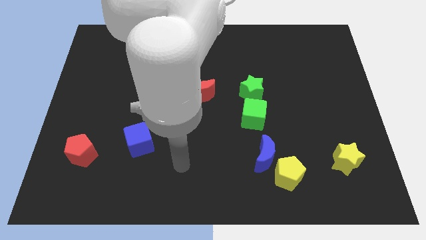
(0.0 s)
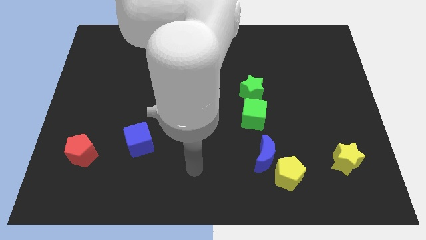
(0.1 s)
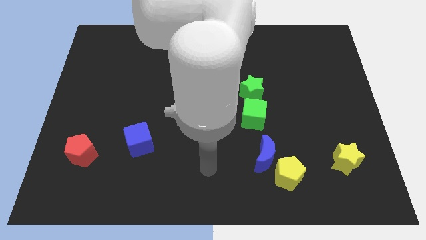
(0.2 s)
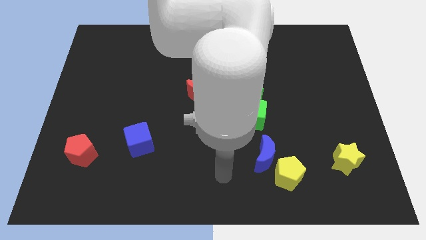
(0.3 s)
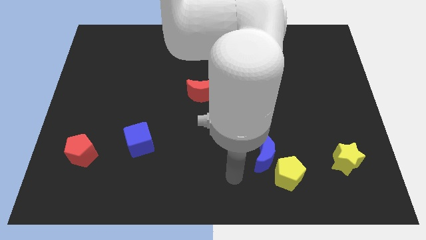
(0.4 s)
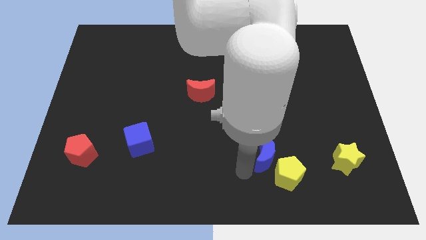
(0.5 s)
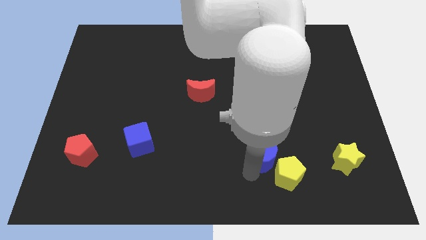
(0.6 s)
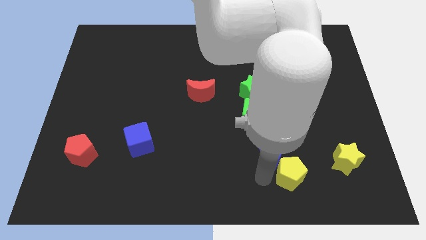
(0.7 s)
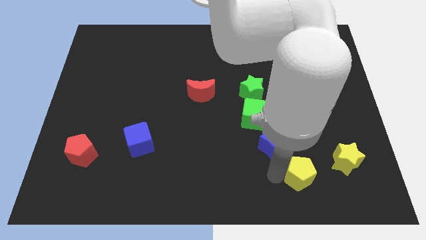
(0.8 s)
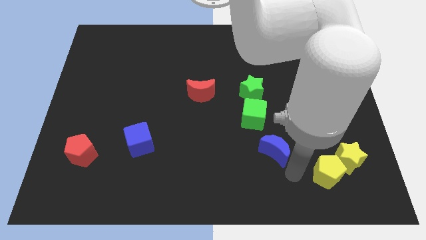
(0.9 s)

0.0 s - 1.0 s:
pull the blue moon apart from the yellow pentagon

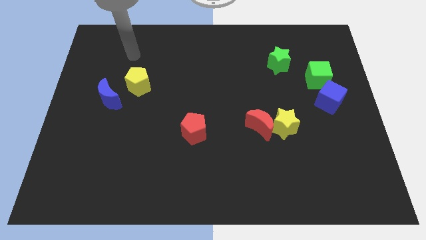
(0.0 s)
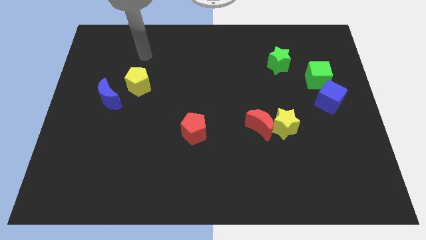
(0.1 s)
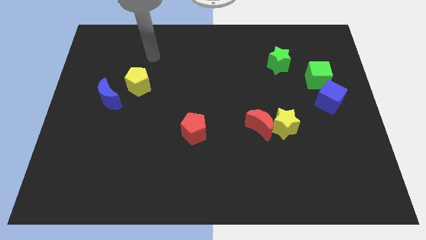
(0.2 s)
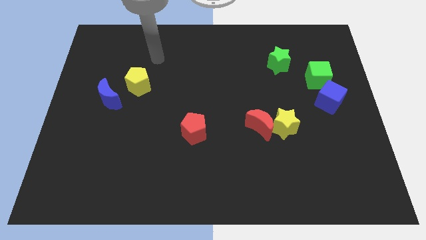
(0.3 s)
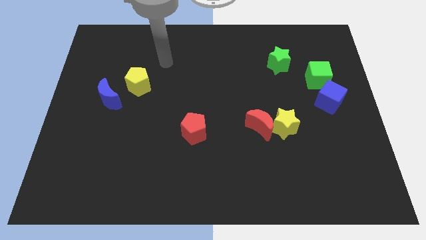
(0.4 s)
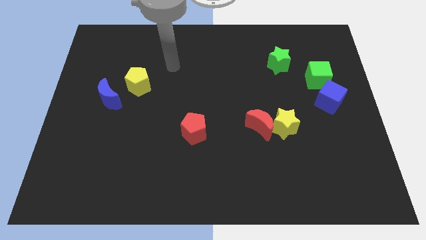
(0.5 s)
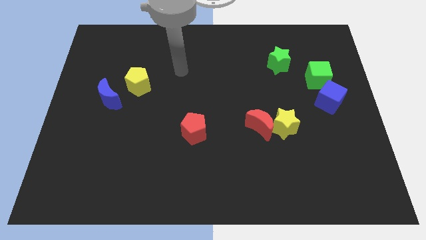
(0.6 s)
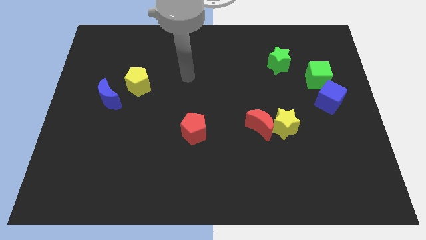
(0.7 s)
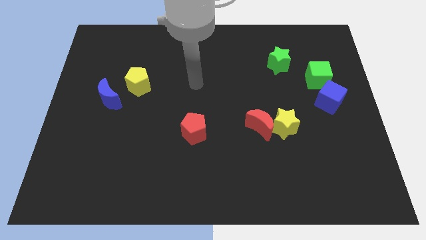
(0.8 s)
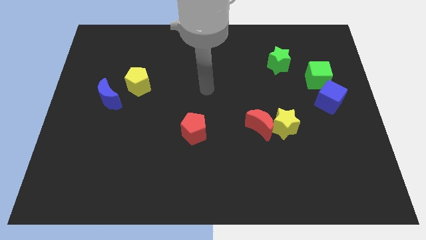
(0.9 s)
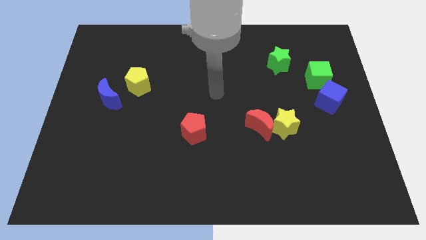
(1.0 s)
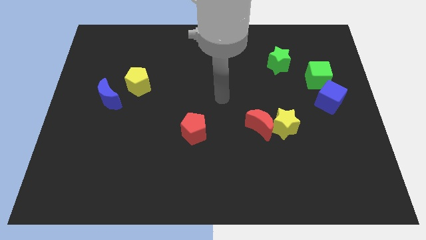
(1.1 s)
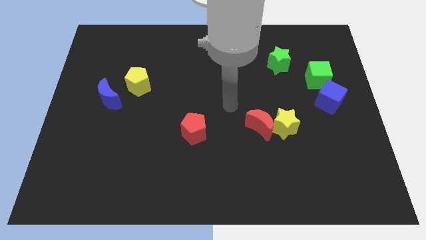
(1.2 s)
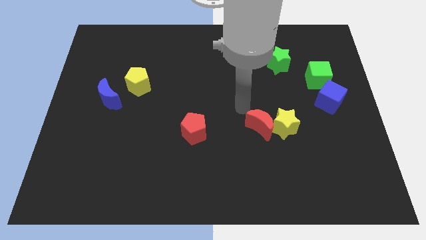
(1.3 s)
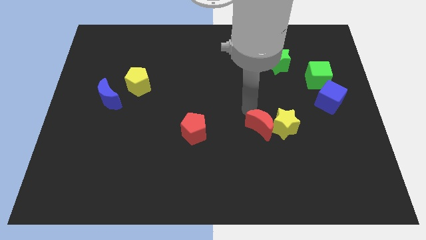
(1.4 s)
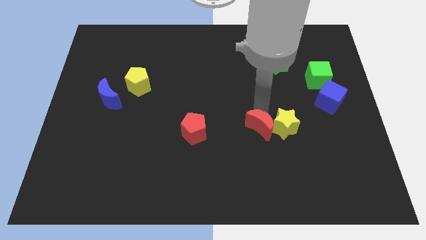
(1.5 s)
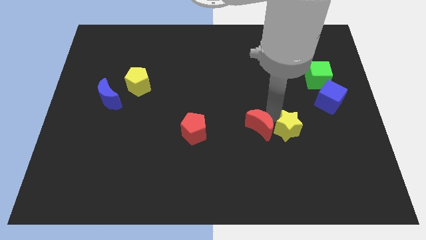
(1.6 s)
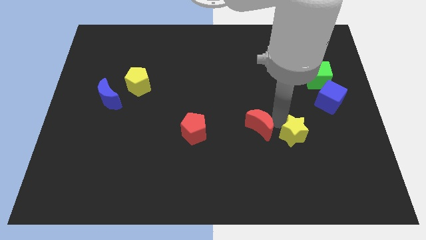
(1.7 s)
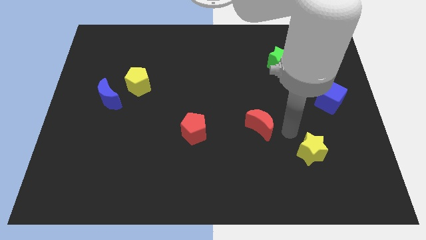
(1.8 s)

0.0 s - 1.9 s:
separate the red moon from the yellow star

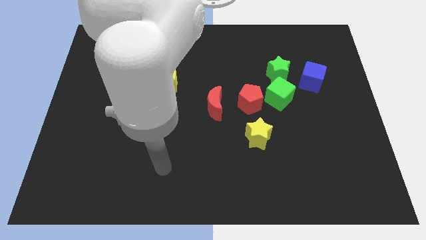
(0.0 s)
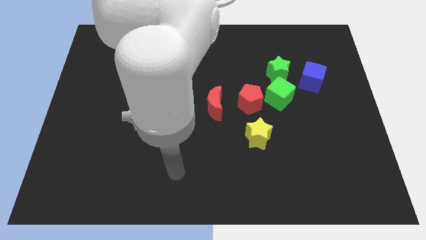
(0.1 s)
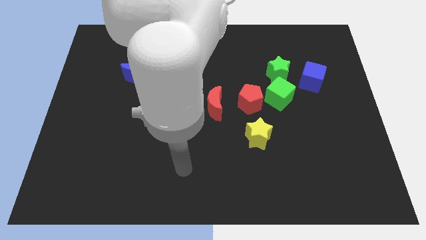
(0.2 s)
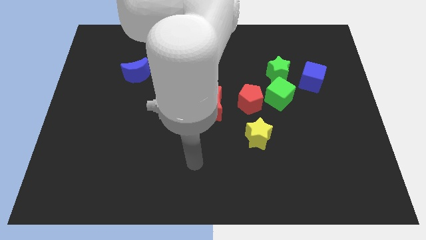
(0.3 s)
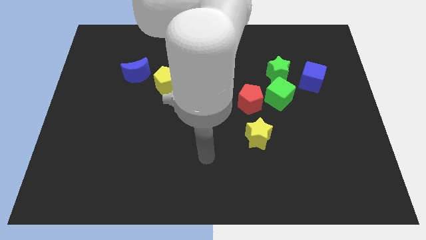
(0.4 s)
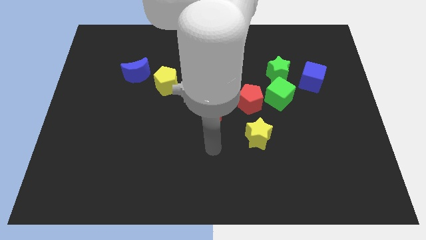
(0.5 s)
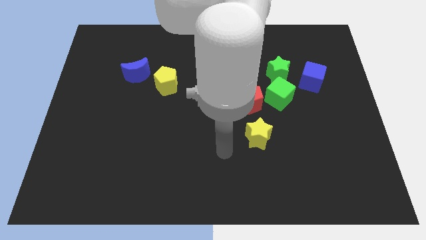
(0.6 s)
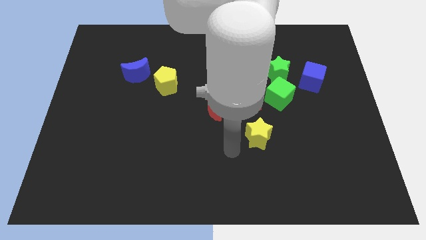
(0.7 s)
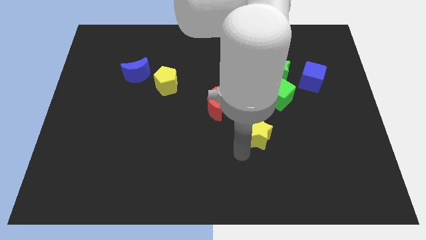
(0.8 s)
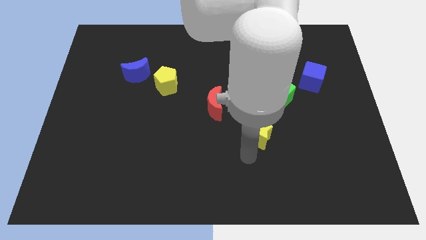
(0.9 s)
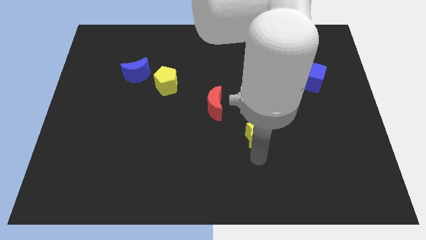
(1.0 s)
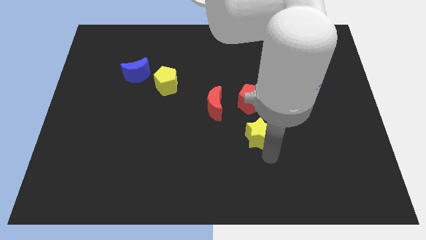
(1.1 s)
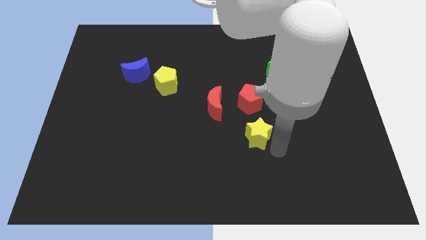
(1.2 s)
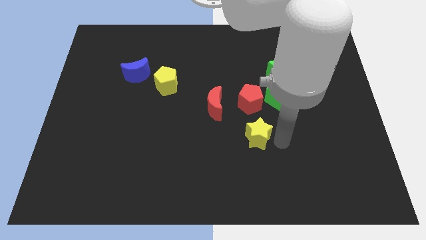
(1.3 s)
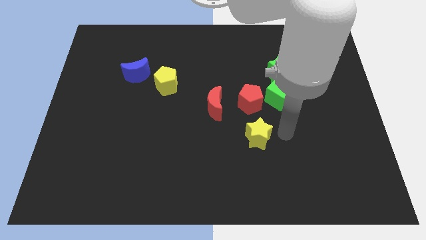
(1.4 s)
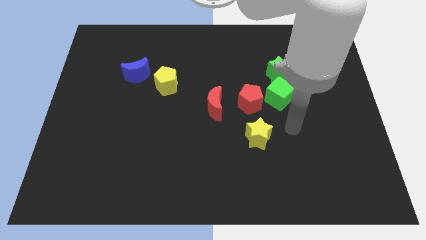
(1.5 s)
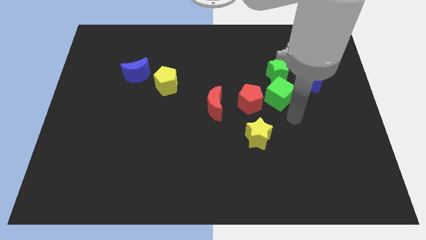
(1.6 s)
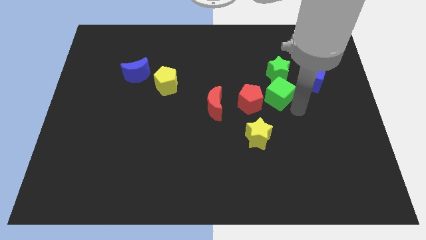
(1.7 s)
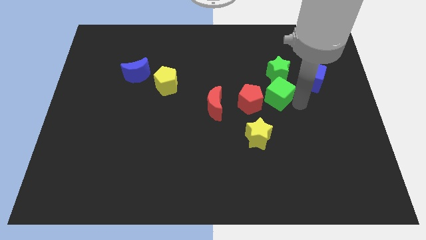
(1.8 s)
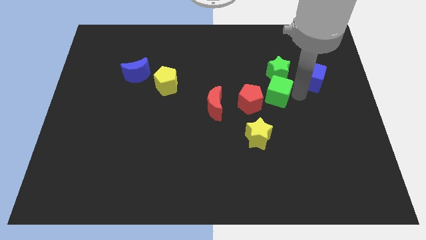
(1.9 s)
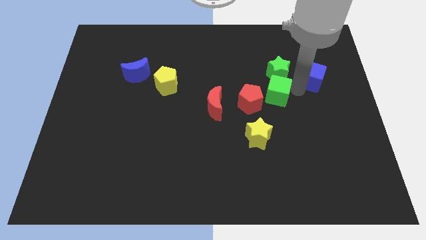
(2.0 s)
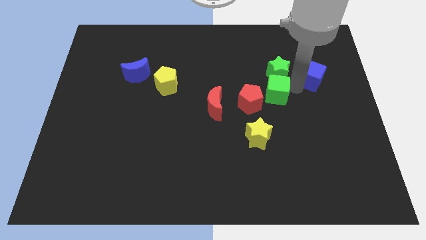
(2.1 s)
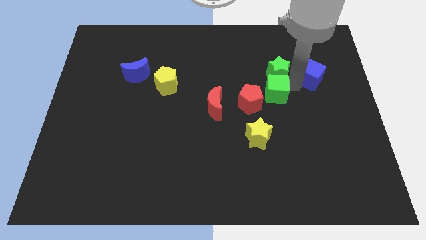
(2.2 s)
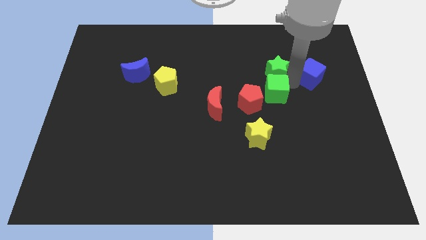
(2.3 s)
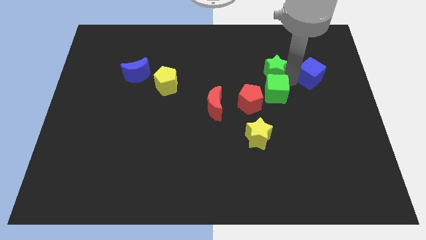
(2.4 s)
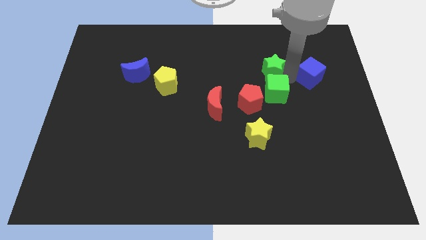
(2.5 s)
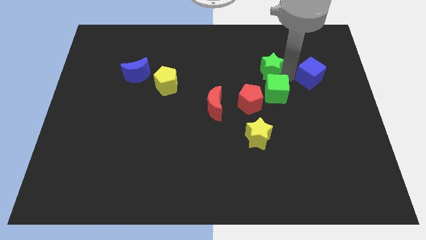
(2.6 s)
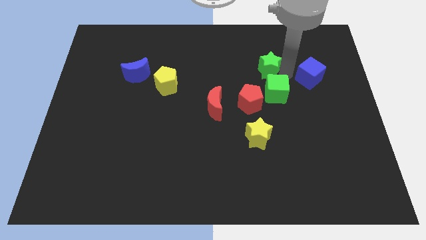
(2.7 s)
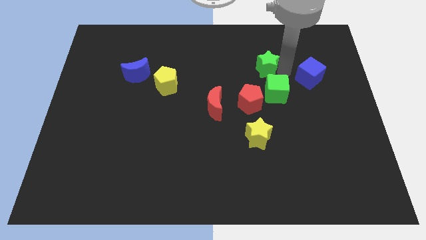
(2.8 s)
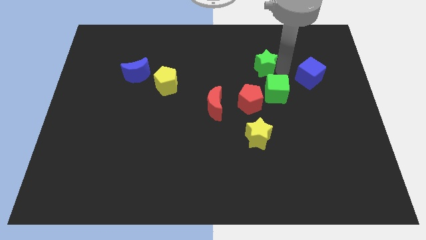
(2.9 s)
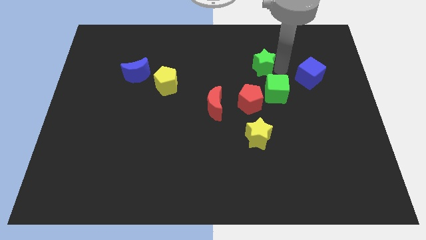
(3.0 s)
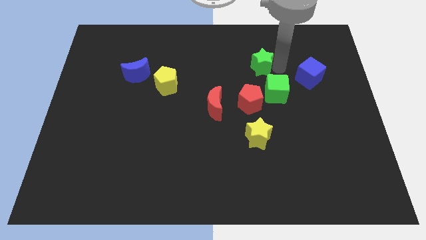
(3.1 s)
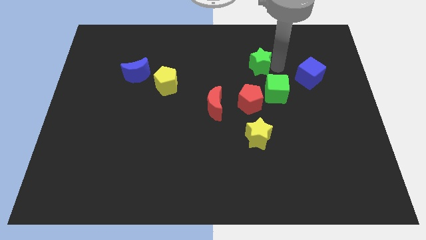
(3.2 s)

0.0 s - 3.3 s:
move the green star away from the green cube and blue cube

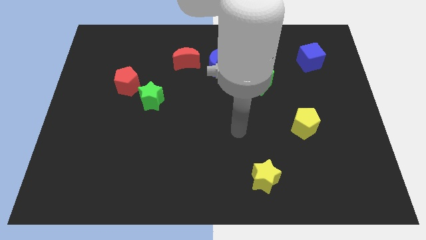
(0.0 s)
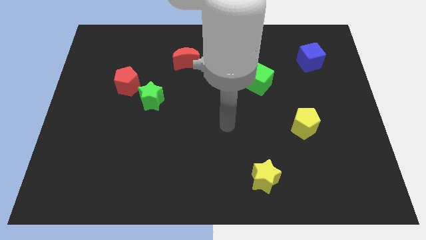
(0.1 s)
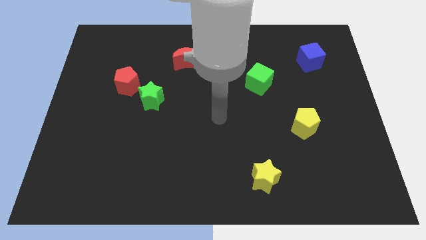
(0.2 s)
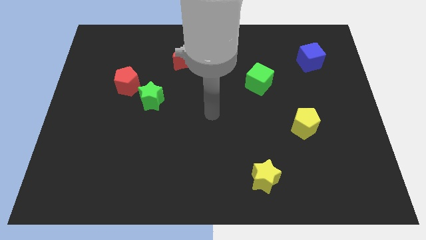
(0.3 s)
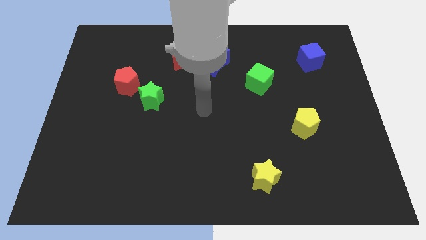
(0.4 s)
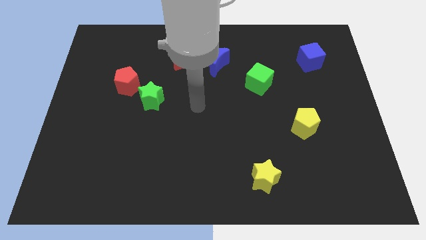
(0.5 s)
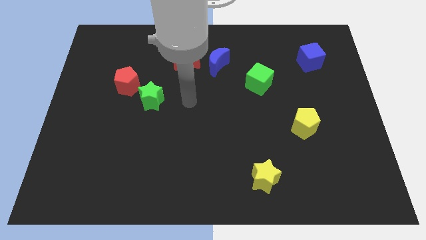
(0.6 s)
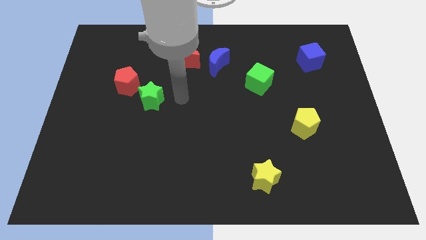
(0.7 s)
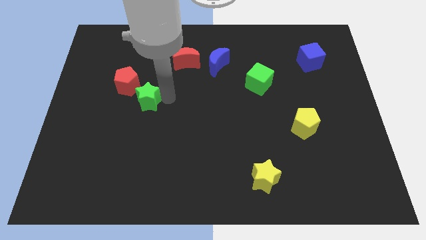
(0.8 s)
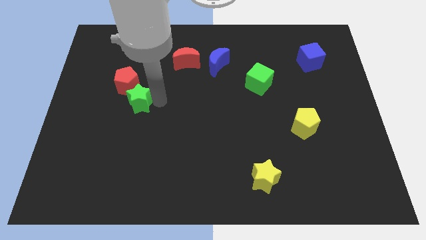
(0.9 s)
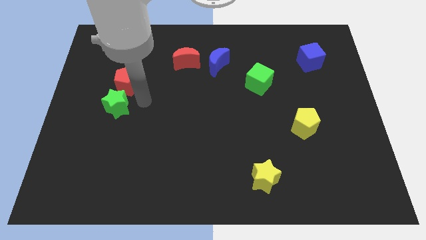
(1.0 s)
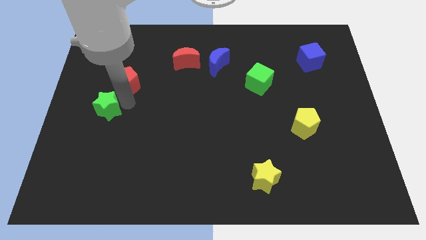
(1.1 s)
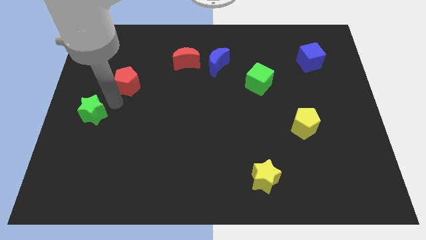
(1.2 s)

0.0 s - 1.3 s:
separate the red pentagon from the green star

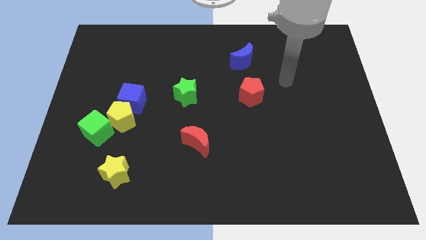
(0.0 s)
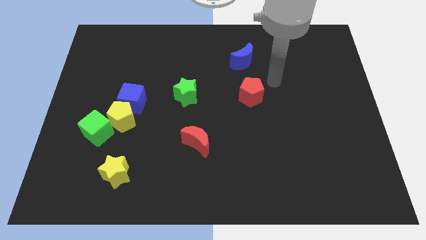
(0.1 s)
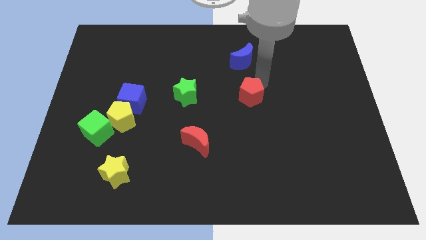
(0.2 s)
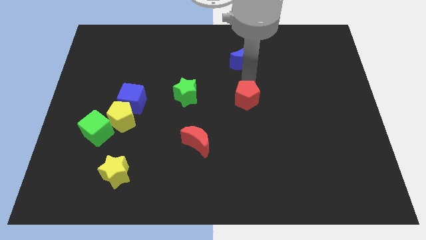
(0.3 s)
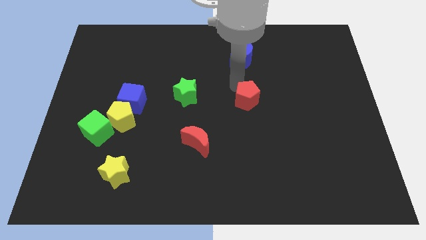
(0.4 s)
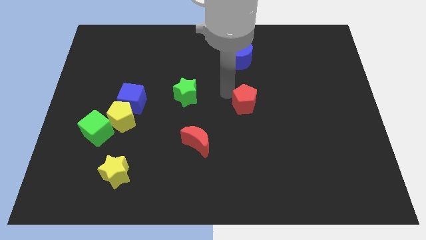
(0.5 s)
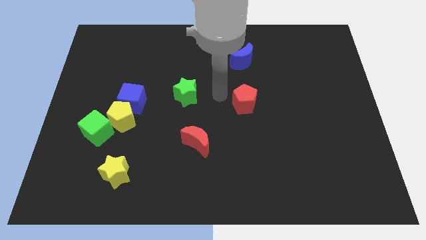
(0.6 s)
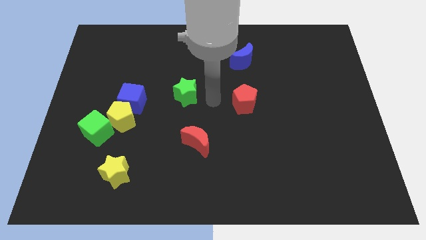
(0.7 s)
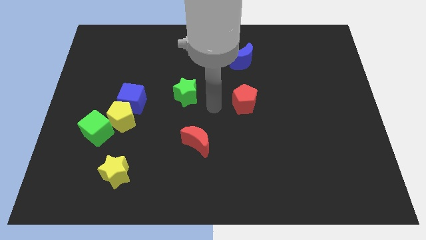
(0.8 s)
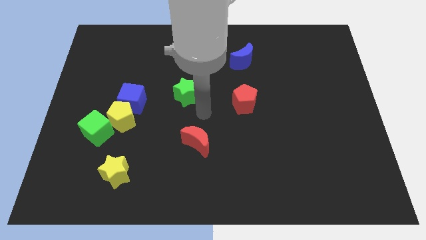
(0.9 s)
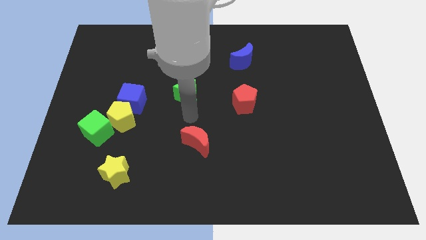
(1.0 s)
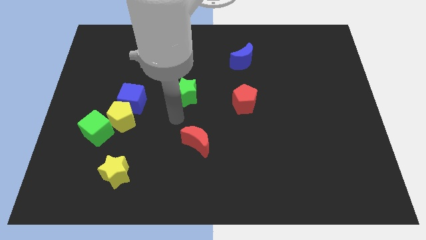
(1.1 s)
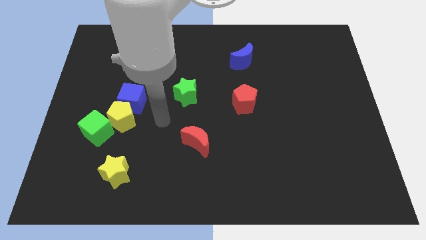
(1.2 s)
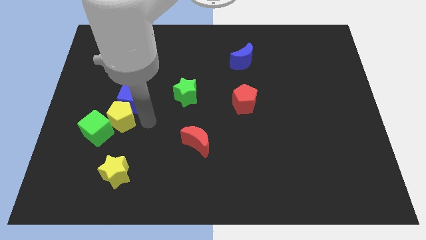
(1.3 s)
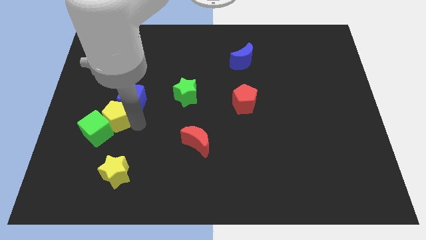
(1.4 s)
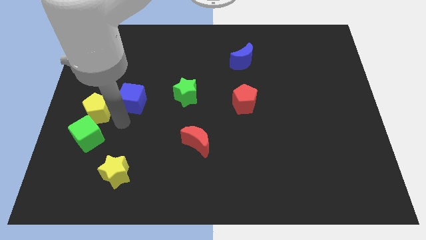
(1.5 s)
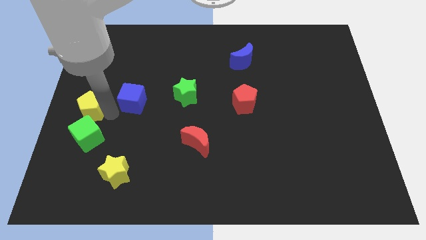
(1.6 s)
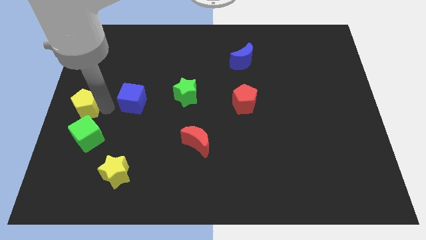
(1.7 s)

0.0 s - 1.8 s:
separate the blue cube from the yellow pentagon
